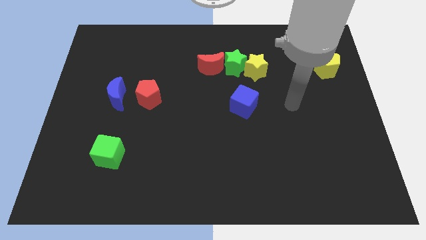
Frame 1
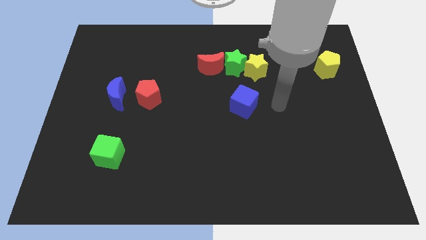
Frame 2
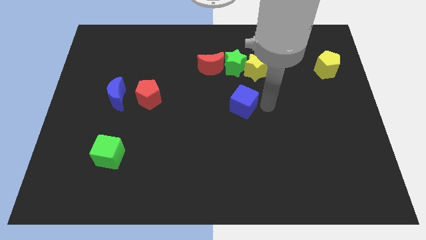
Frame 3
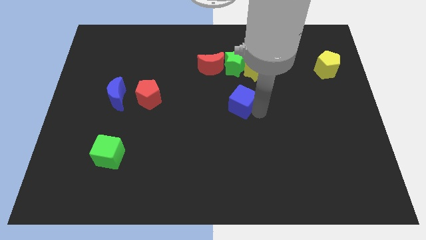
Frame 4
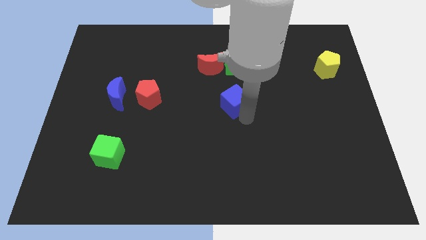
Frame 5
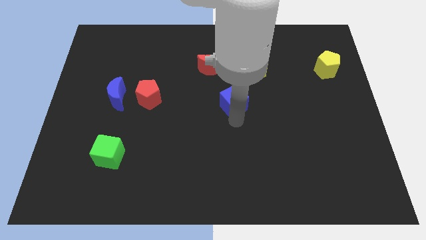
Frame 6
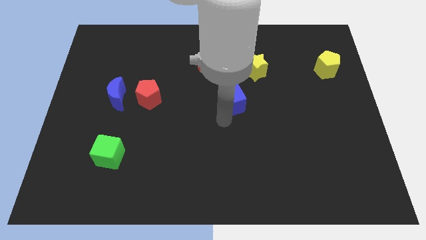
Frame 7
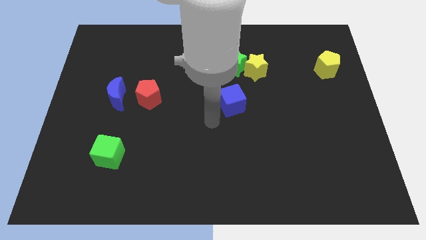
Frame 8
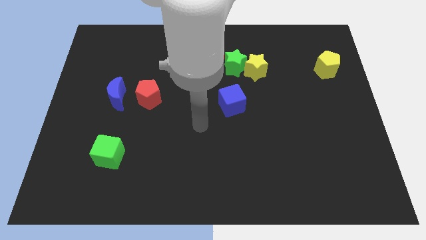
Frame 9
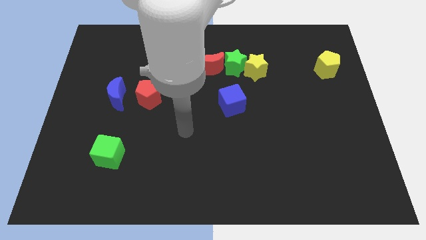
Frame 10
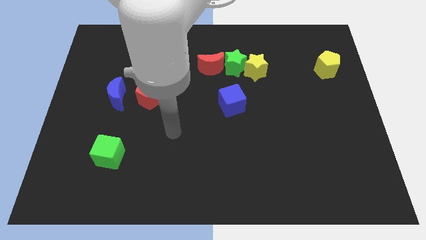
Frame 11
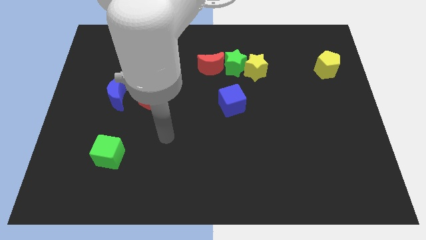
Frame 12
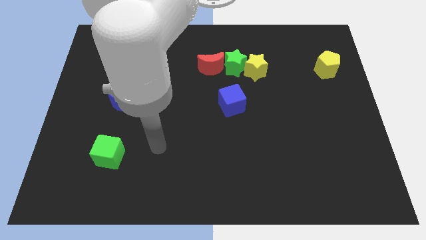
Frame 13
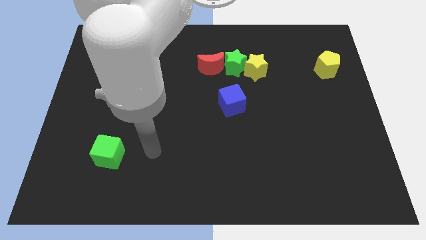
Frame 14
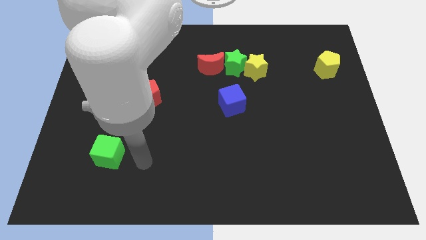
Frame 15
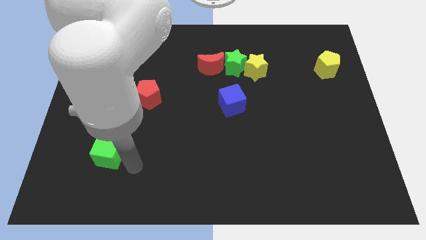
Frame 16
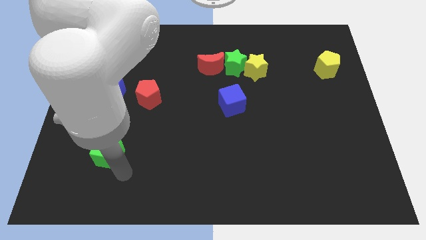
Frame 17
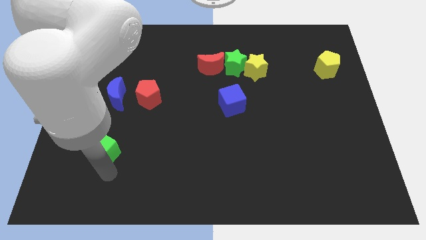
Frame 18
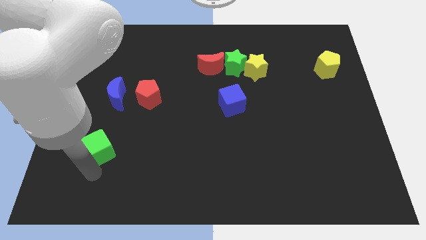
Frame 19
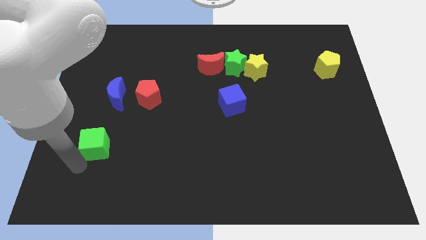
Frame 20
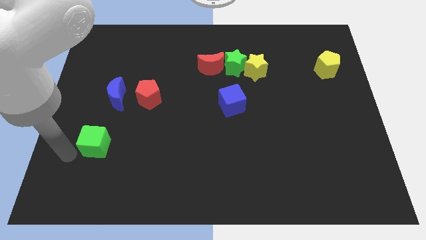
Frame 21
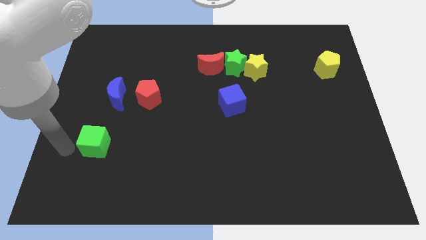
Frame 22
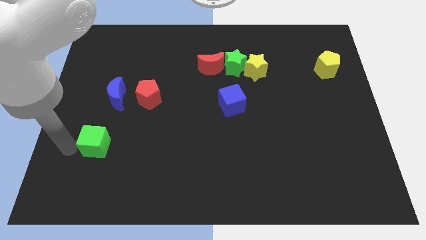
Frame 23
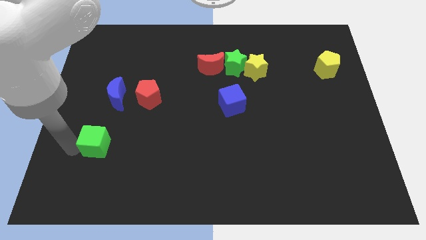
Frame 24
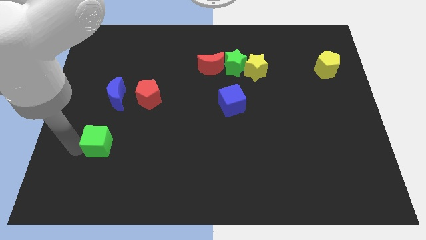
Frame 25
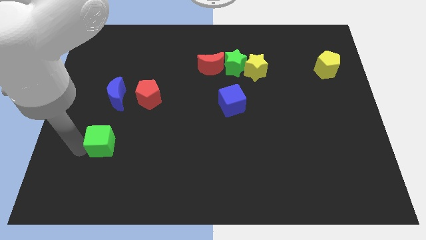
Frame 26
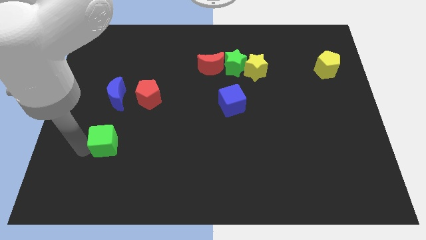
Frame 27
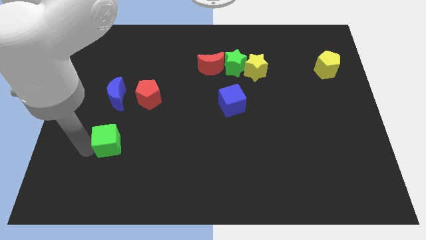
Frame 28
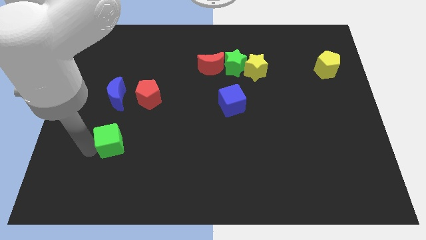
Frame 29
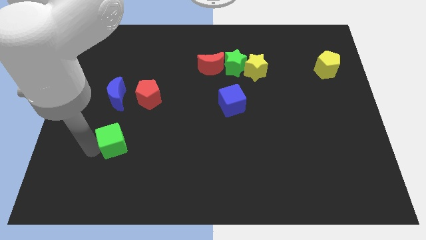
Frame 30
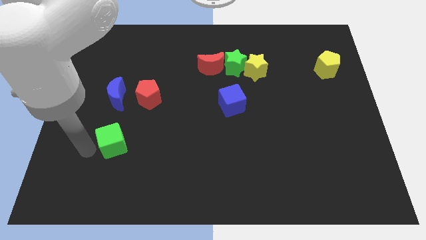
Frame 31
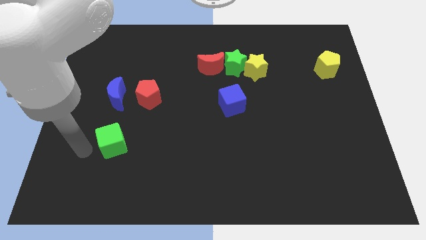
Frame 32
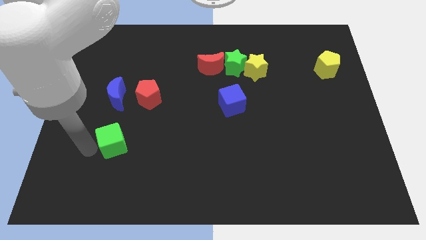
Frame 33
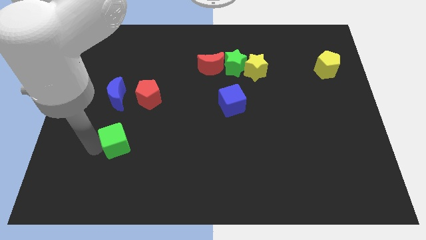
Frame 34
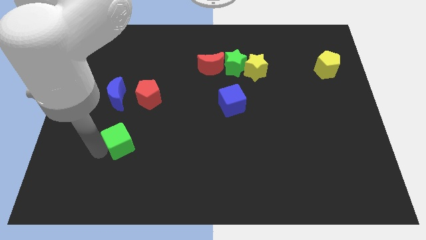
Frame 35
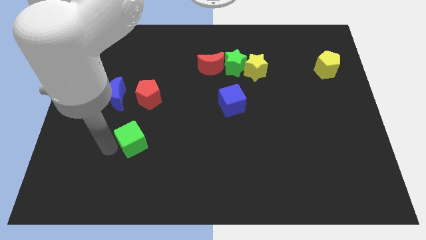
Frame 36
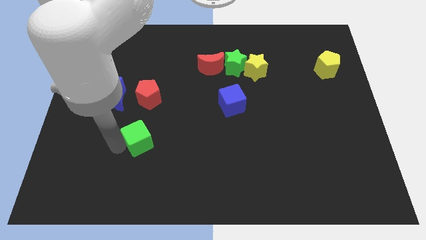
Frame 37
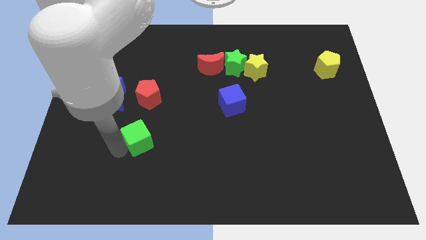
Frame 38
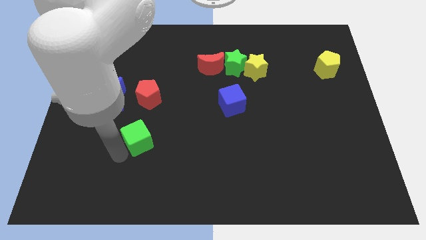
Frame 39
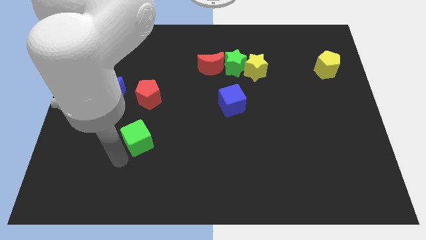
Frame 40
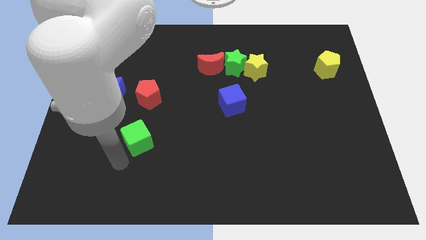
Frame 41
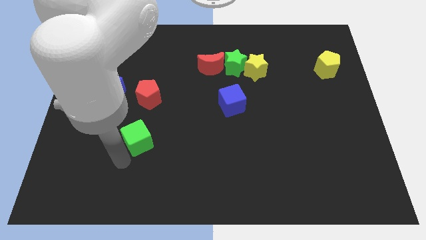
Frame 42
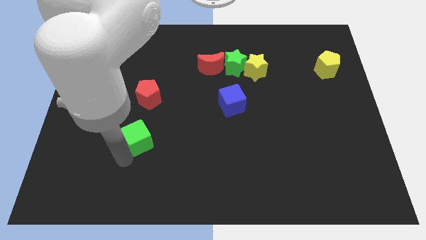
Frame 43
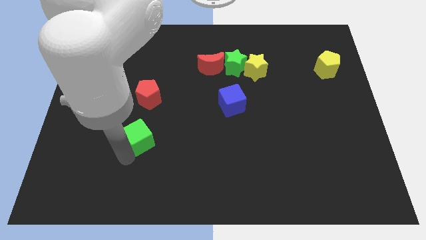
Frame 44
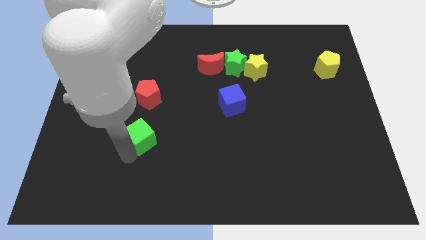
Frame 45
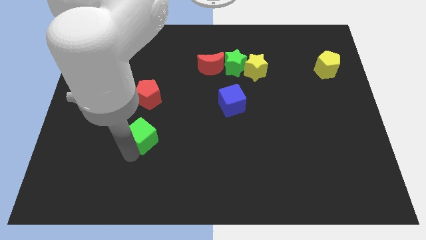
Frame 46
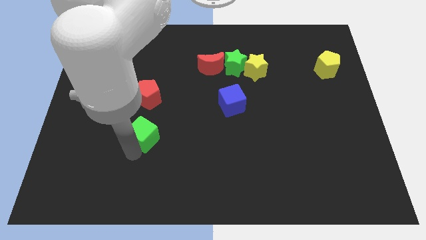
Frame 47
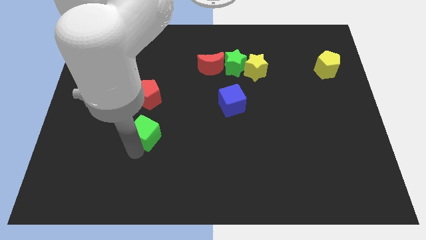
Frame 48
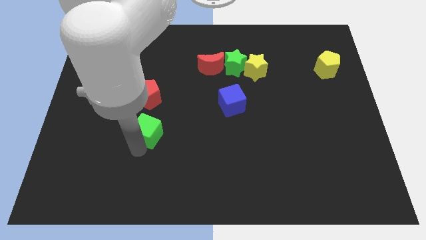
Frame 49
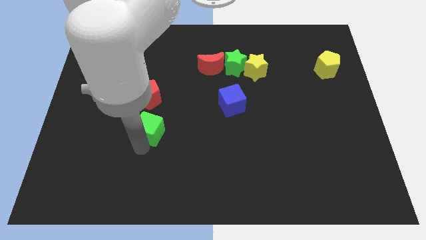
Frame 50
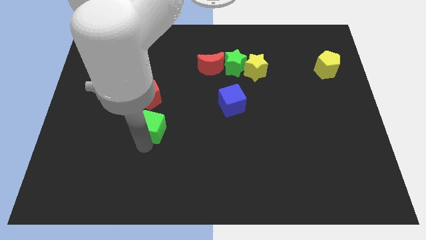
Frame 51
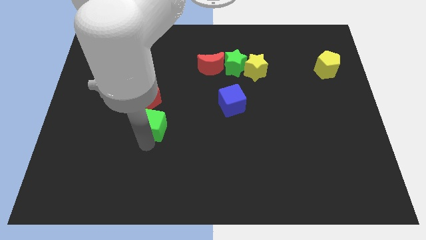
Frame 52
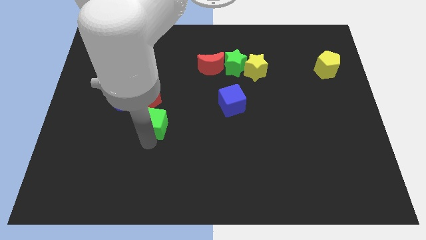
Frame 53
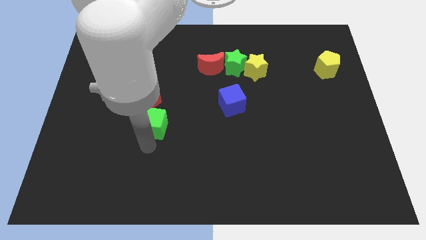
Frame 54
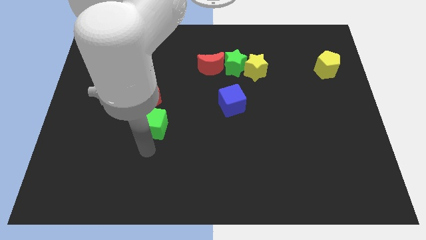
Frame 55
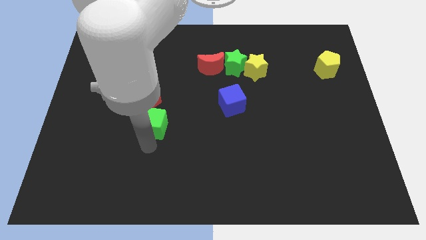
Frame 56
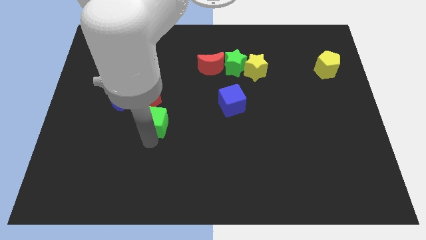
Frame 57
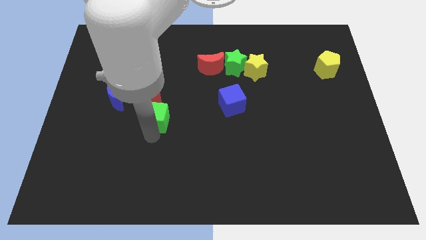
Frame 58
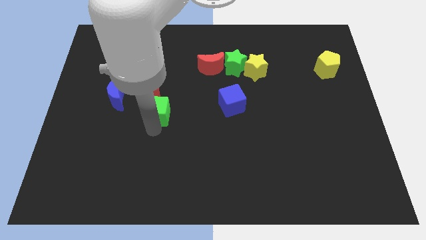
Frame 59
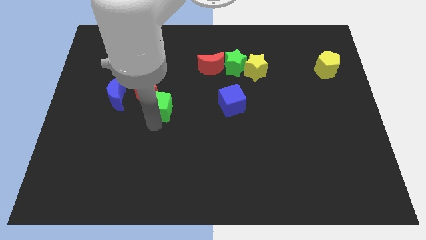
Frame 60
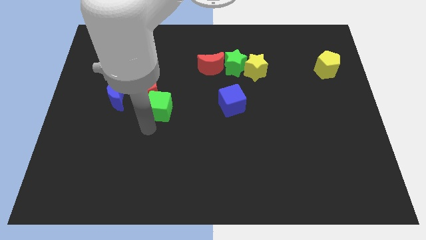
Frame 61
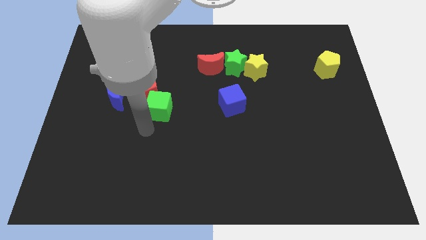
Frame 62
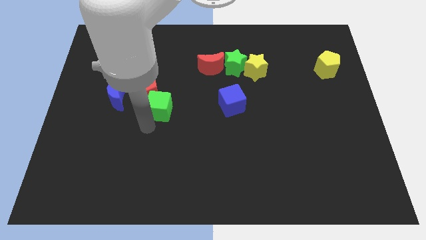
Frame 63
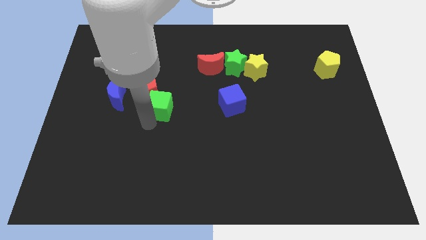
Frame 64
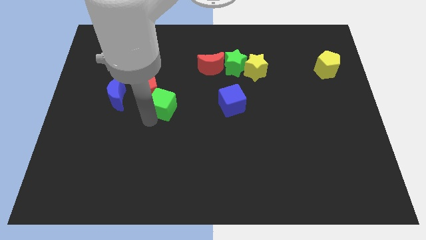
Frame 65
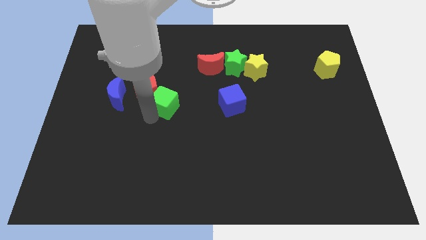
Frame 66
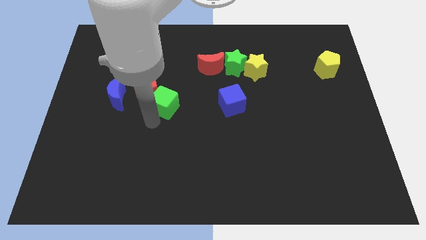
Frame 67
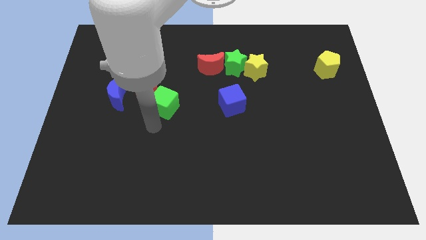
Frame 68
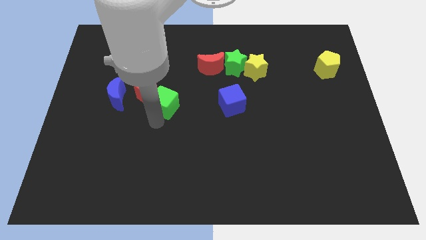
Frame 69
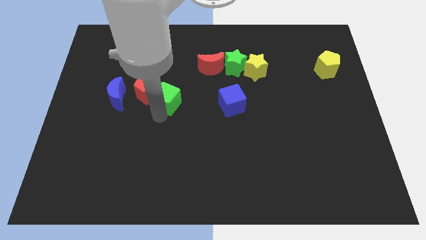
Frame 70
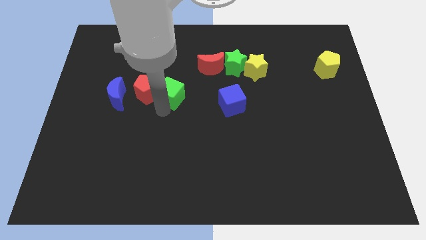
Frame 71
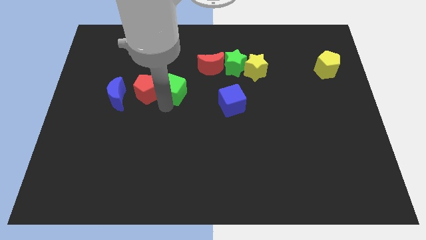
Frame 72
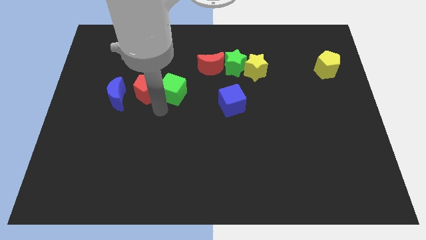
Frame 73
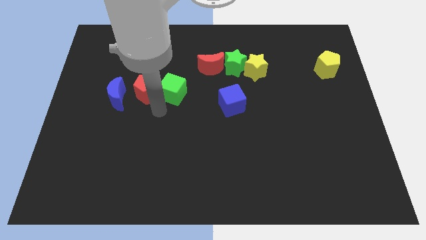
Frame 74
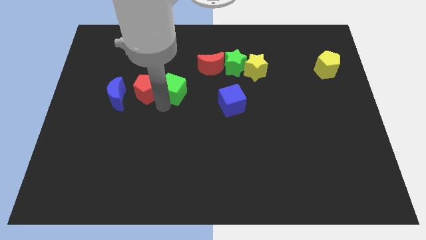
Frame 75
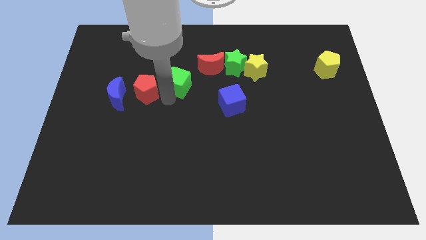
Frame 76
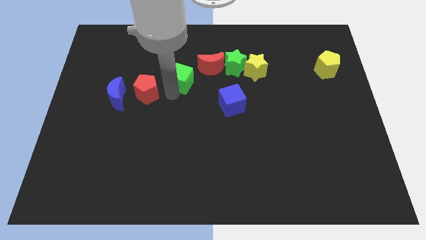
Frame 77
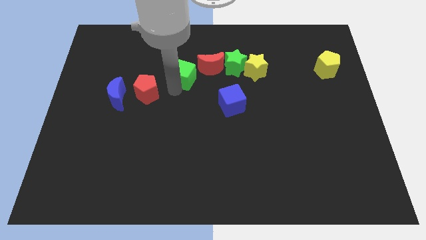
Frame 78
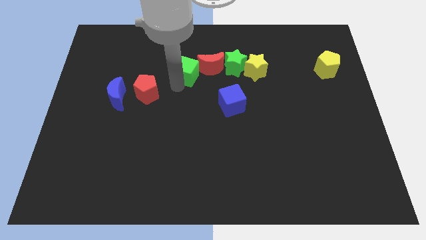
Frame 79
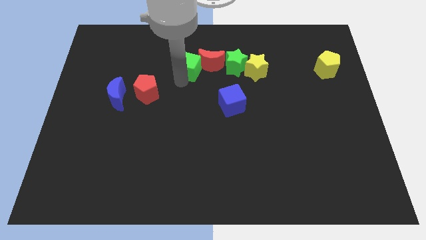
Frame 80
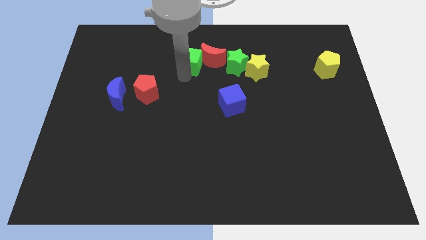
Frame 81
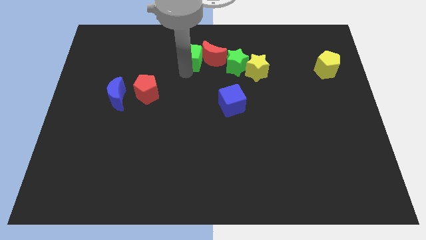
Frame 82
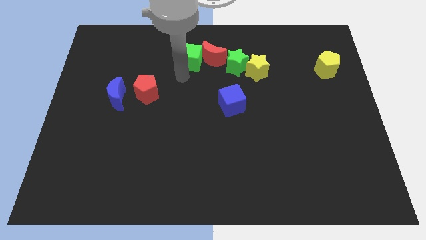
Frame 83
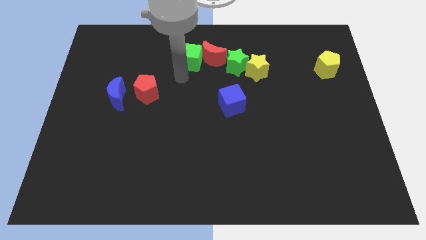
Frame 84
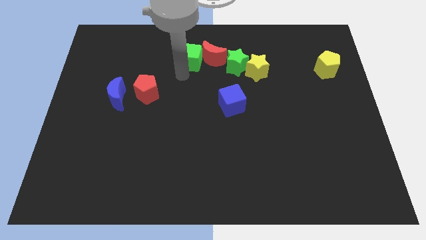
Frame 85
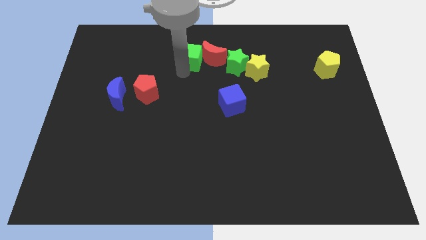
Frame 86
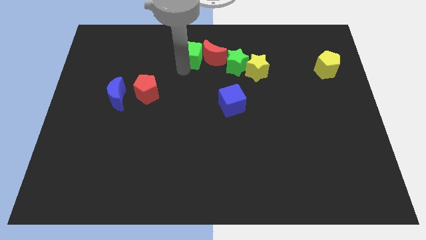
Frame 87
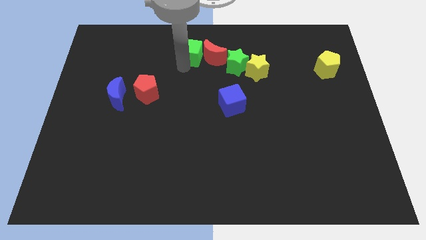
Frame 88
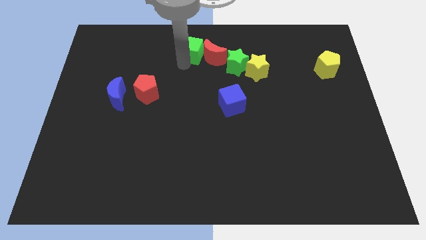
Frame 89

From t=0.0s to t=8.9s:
put the green cube to the towards your base
